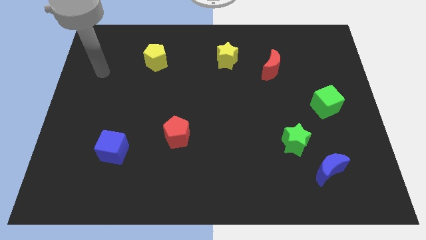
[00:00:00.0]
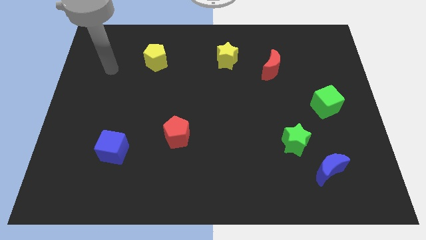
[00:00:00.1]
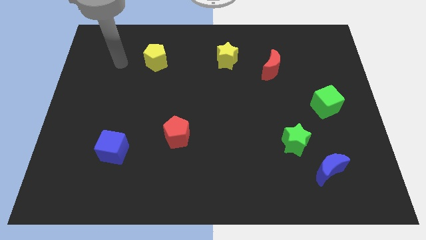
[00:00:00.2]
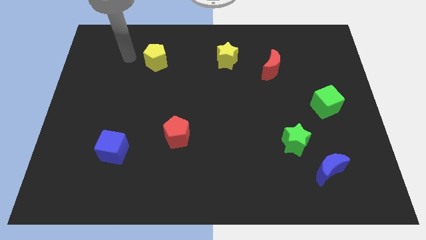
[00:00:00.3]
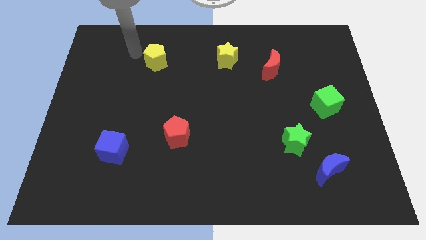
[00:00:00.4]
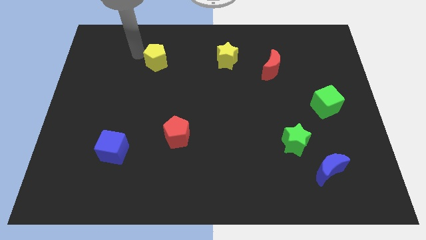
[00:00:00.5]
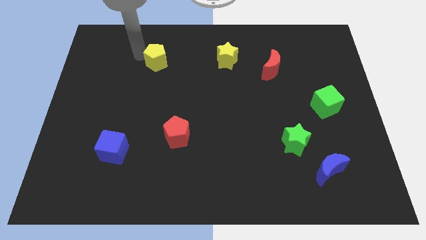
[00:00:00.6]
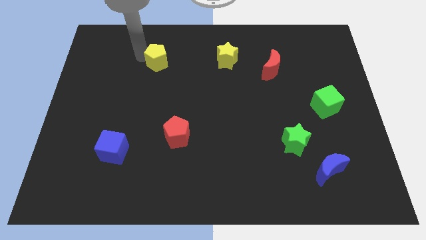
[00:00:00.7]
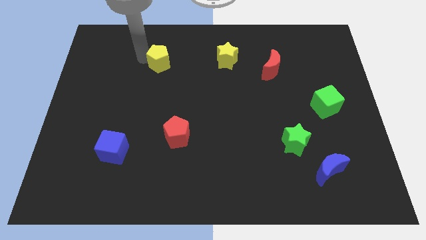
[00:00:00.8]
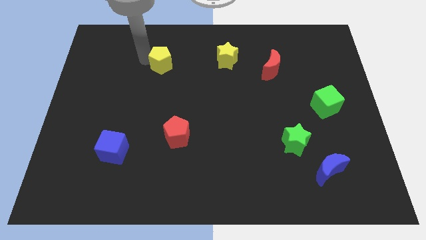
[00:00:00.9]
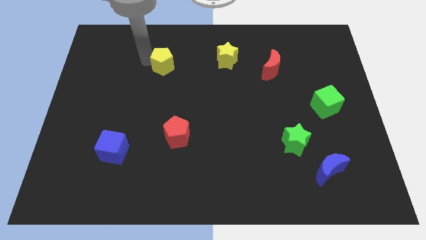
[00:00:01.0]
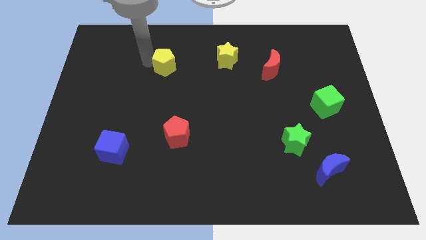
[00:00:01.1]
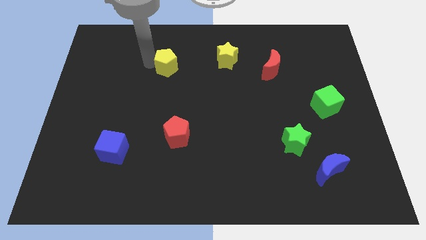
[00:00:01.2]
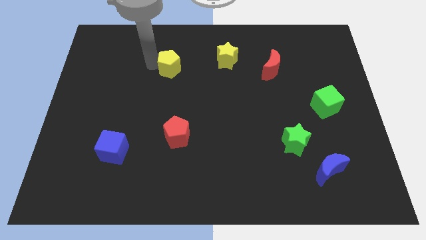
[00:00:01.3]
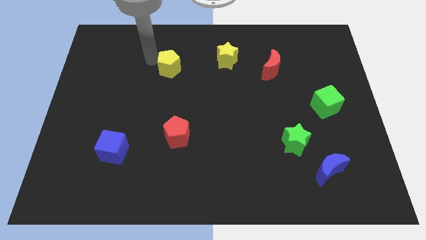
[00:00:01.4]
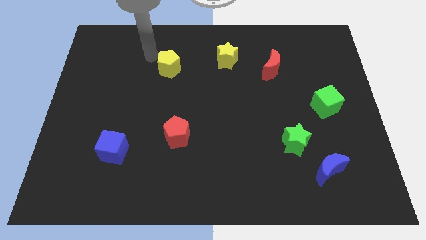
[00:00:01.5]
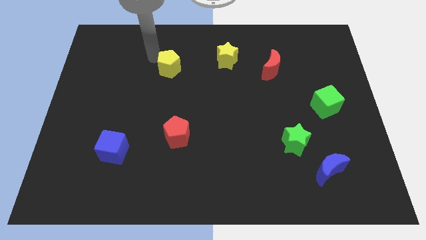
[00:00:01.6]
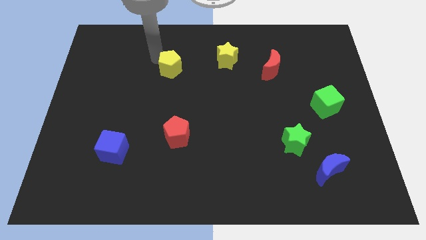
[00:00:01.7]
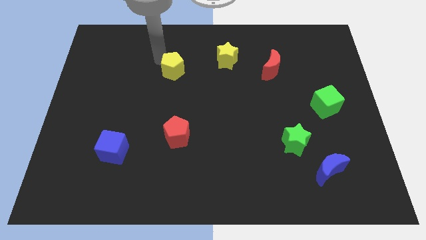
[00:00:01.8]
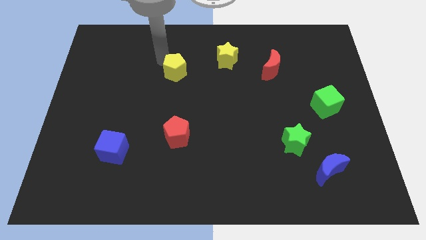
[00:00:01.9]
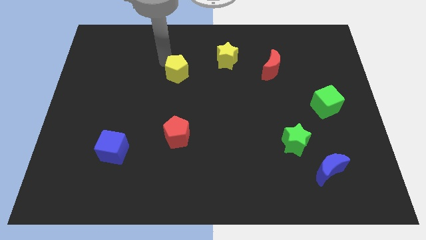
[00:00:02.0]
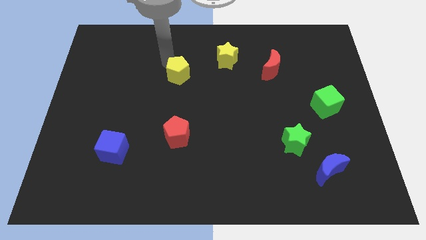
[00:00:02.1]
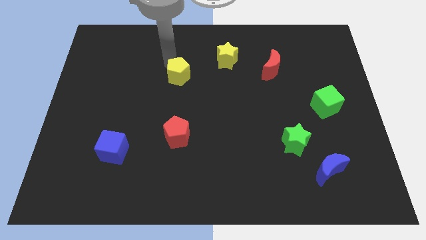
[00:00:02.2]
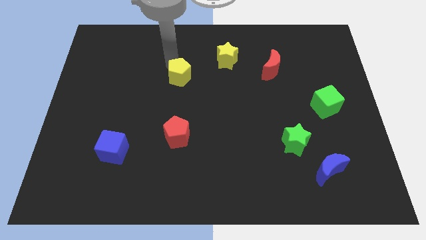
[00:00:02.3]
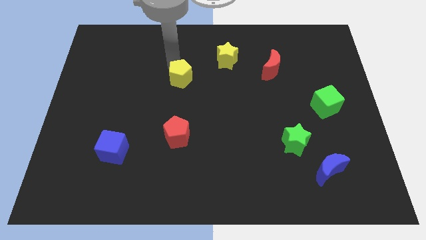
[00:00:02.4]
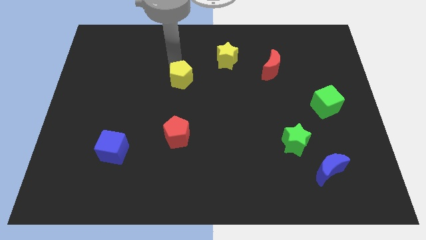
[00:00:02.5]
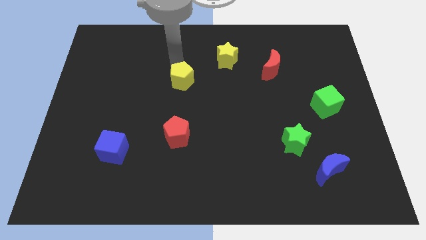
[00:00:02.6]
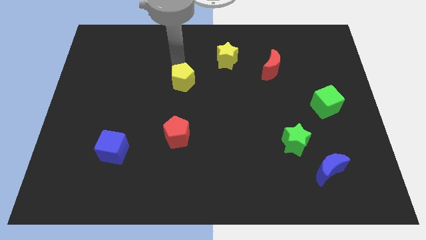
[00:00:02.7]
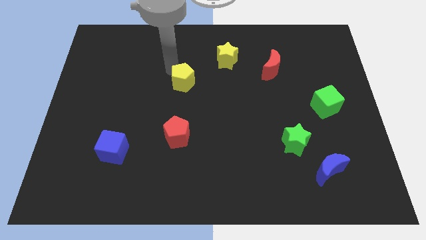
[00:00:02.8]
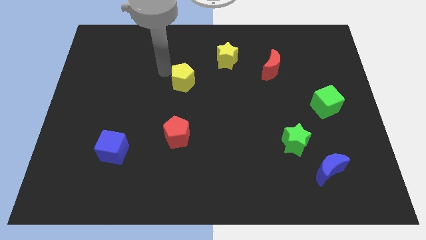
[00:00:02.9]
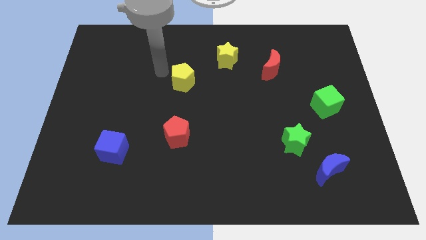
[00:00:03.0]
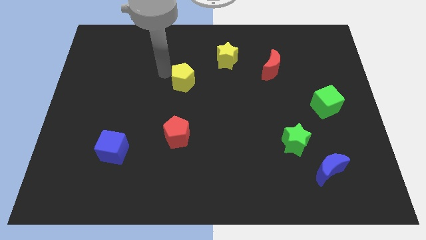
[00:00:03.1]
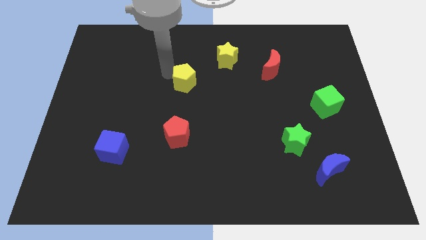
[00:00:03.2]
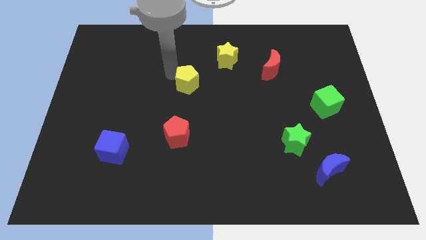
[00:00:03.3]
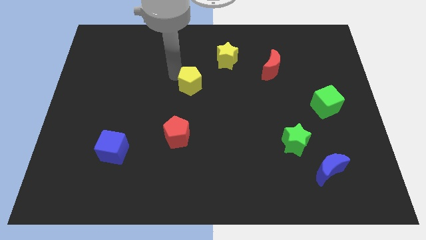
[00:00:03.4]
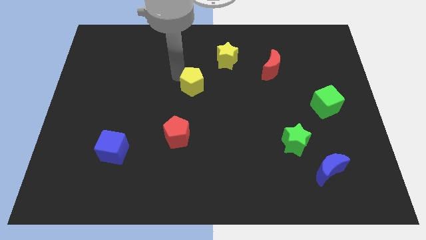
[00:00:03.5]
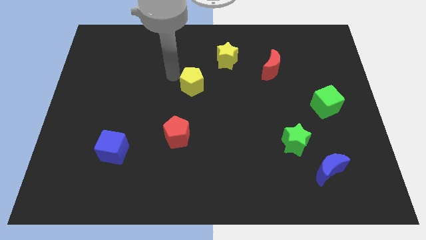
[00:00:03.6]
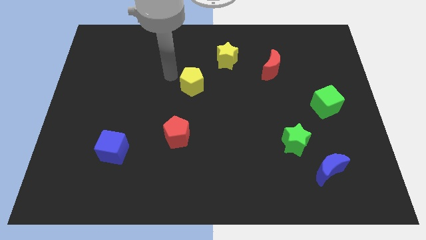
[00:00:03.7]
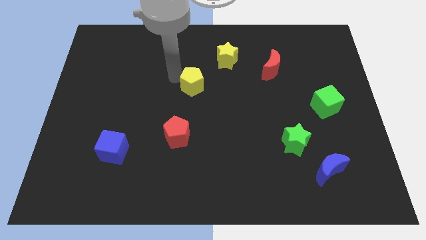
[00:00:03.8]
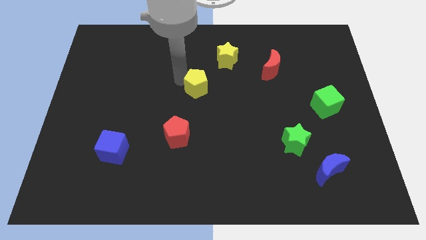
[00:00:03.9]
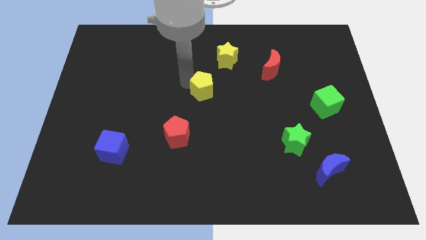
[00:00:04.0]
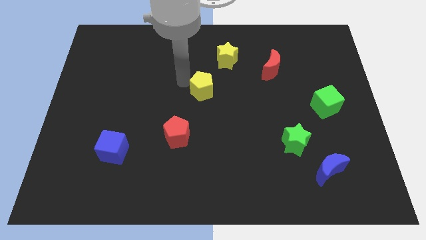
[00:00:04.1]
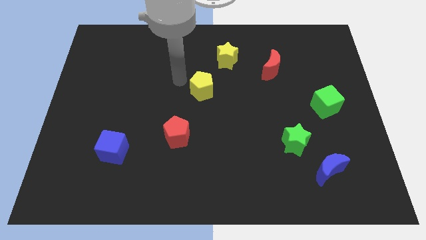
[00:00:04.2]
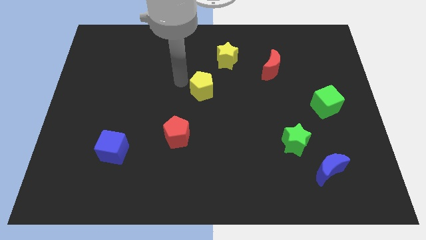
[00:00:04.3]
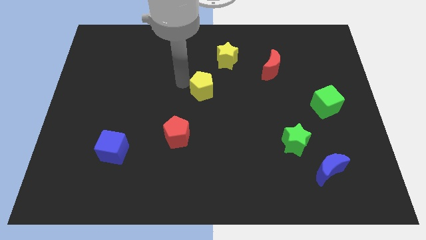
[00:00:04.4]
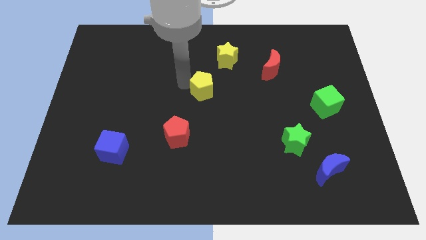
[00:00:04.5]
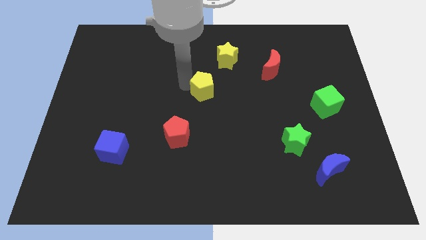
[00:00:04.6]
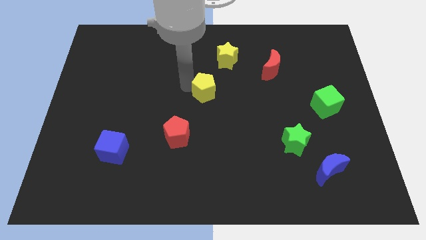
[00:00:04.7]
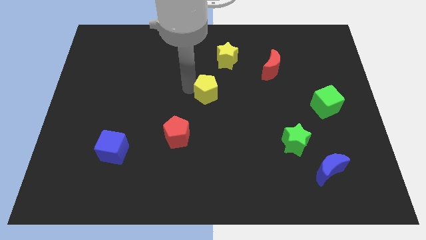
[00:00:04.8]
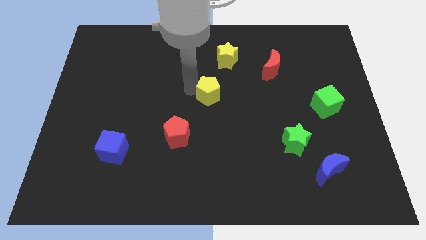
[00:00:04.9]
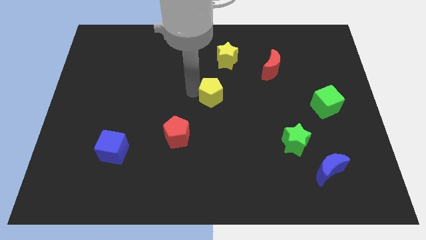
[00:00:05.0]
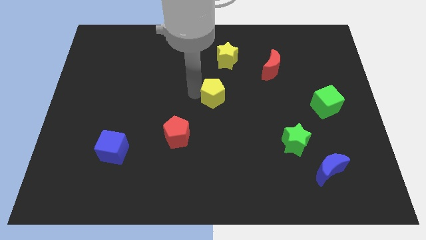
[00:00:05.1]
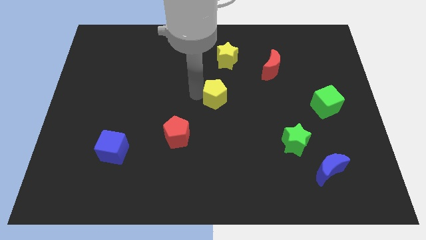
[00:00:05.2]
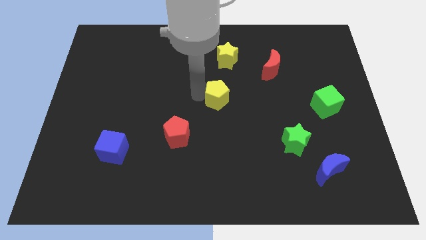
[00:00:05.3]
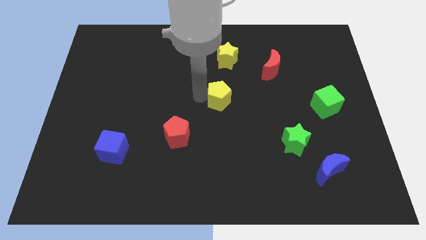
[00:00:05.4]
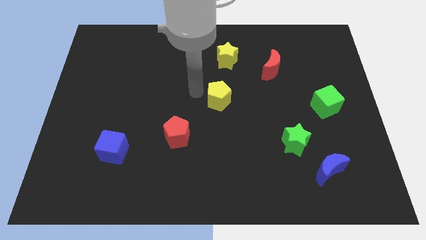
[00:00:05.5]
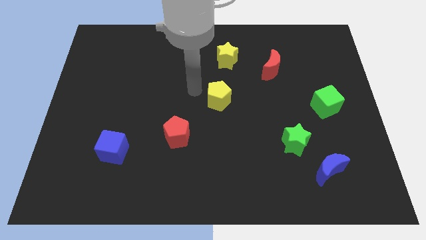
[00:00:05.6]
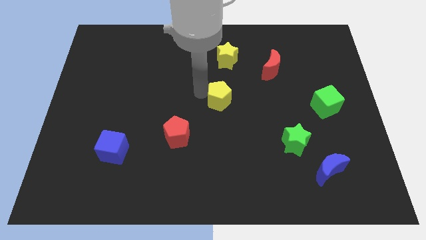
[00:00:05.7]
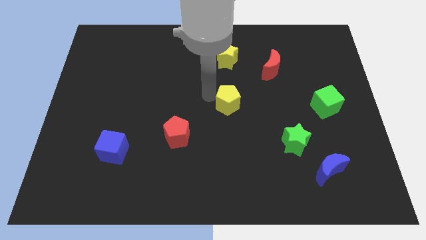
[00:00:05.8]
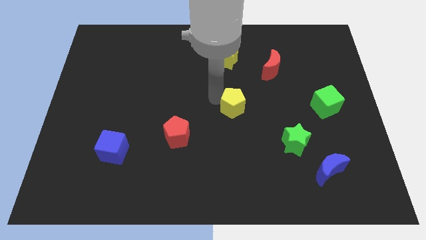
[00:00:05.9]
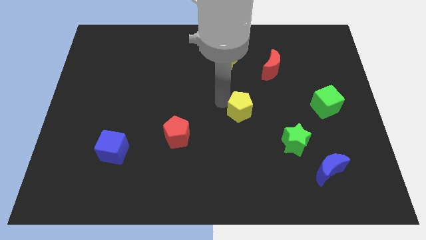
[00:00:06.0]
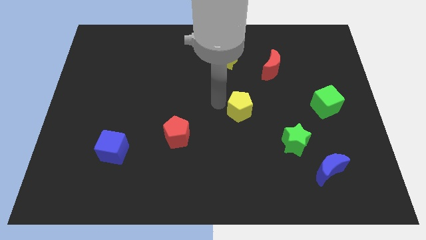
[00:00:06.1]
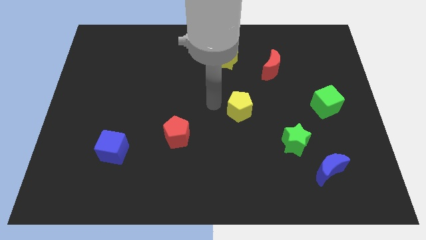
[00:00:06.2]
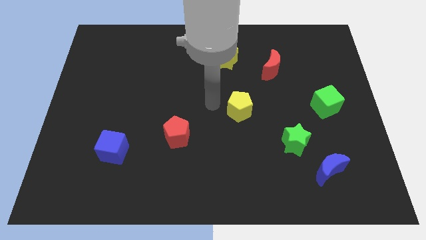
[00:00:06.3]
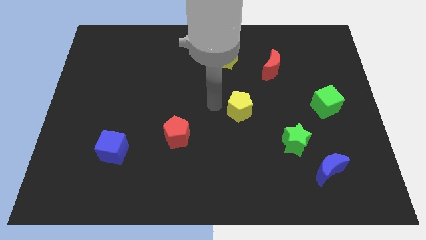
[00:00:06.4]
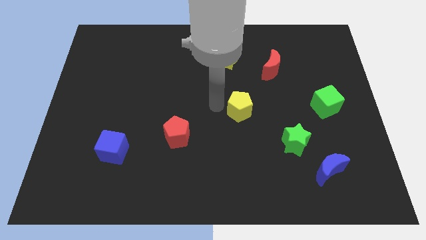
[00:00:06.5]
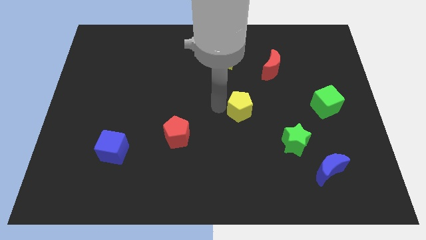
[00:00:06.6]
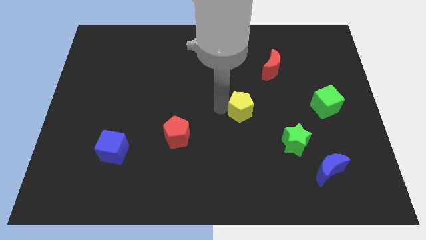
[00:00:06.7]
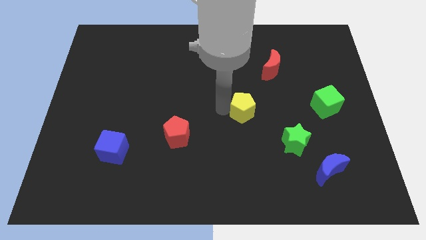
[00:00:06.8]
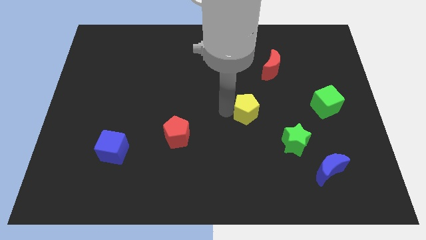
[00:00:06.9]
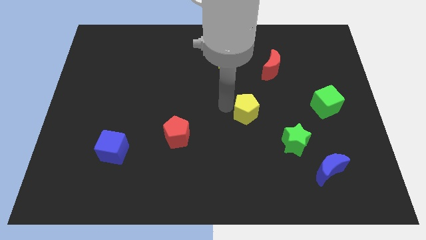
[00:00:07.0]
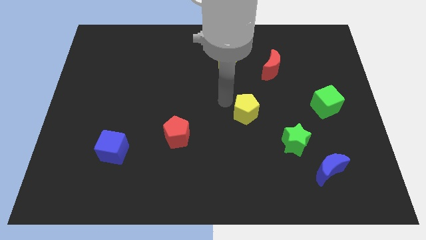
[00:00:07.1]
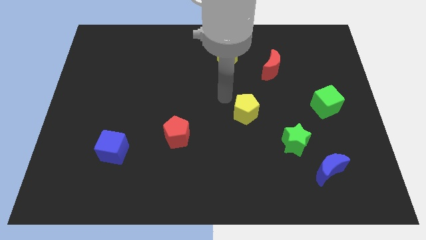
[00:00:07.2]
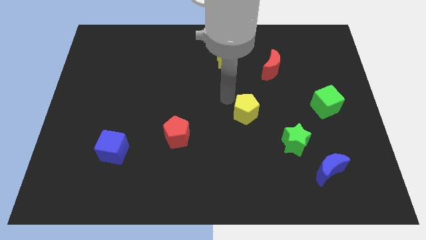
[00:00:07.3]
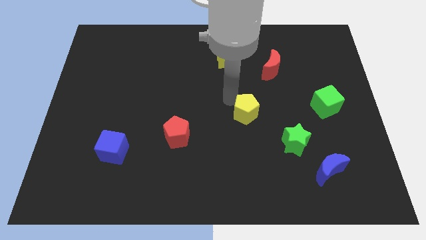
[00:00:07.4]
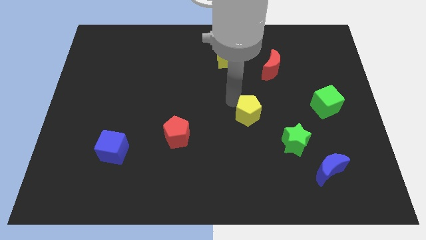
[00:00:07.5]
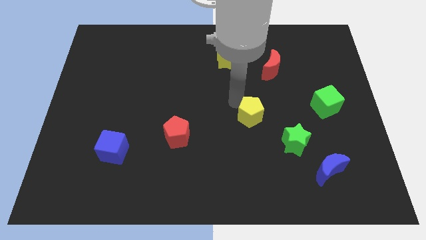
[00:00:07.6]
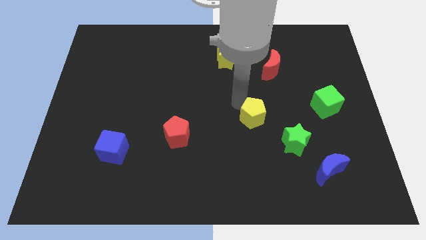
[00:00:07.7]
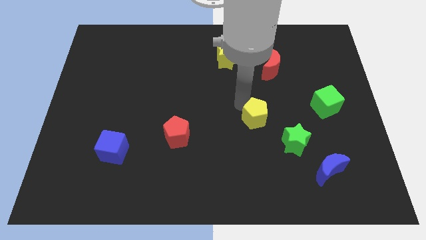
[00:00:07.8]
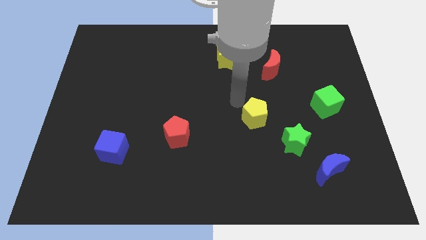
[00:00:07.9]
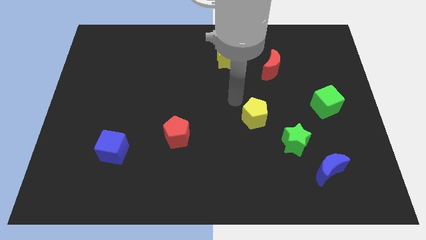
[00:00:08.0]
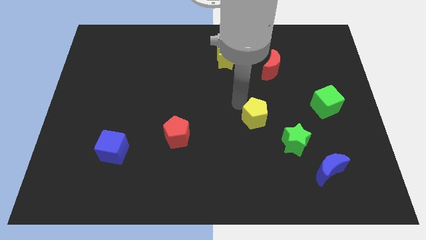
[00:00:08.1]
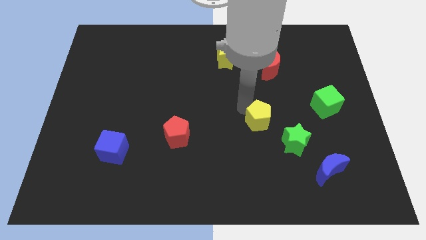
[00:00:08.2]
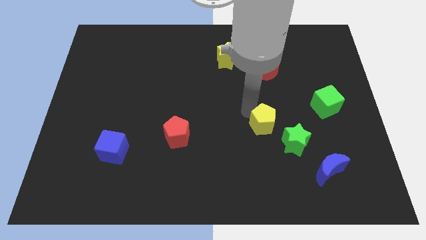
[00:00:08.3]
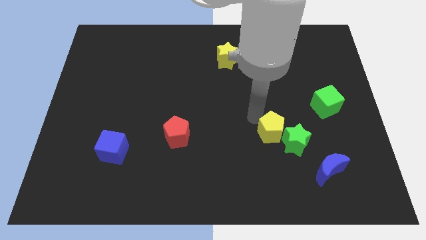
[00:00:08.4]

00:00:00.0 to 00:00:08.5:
put the yellow pentagon close to the green star
